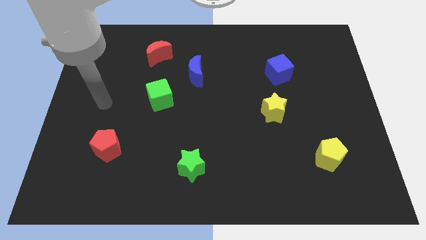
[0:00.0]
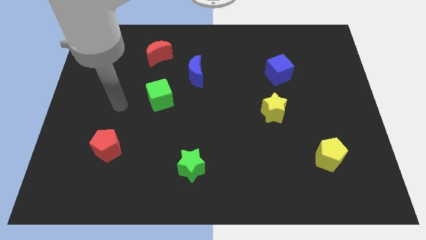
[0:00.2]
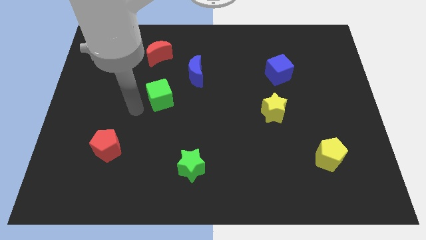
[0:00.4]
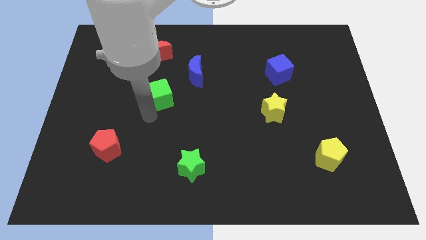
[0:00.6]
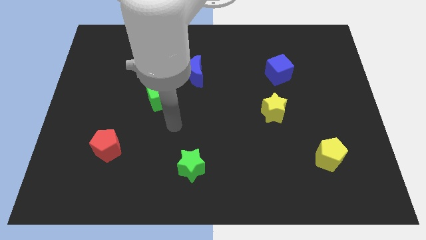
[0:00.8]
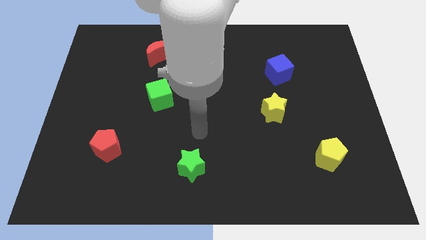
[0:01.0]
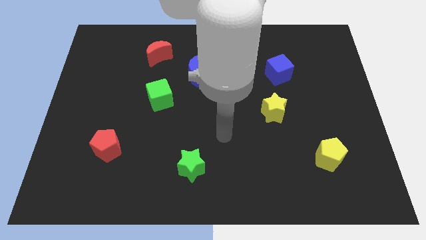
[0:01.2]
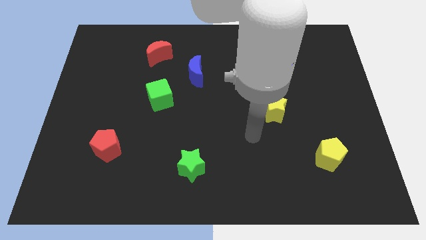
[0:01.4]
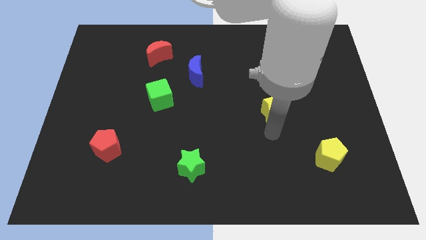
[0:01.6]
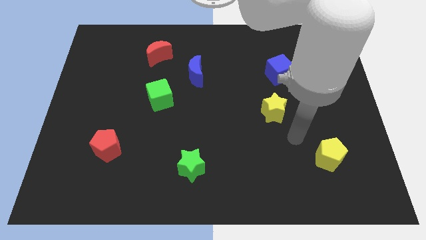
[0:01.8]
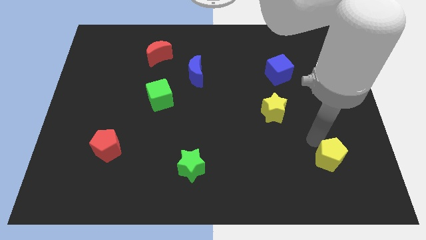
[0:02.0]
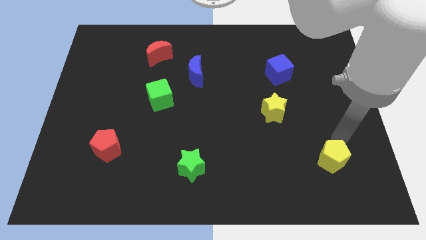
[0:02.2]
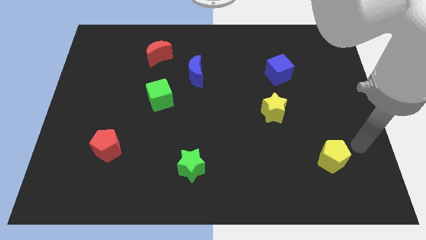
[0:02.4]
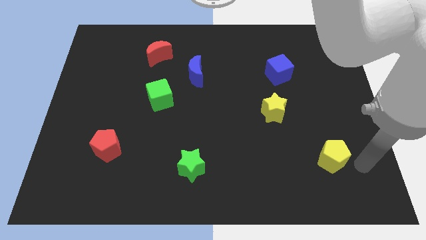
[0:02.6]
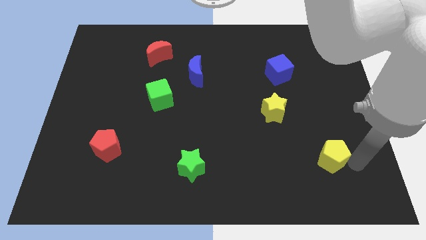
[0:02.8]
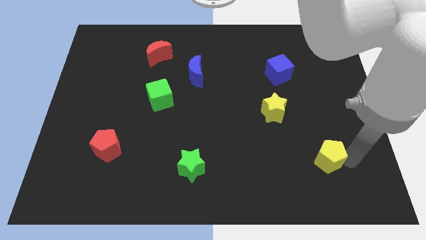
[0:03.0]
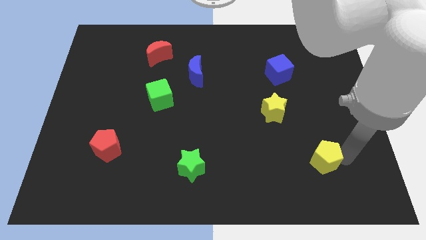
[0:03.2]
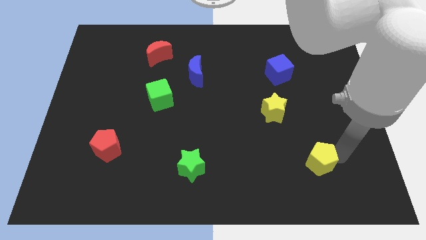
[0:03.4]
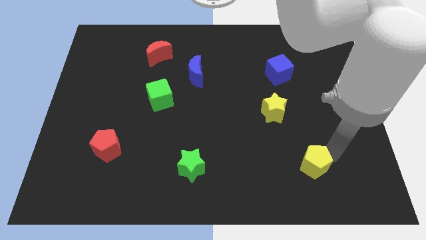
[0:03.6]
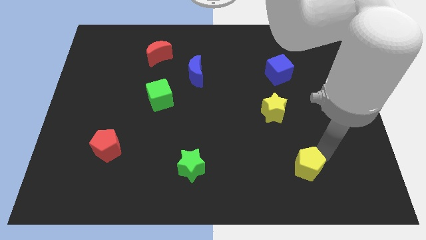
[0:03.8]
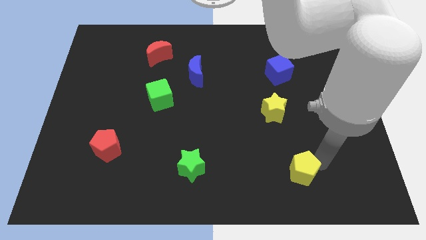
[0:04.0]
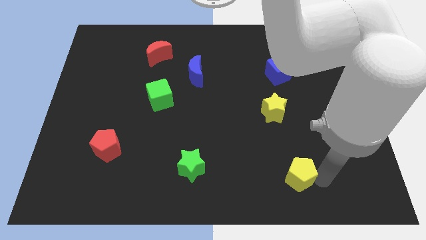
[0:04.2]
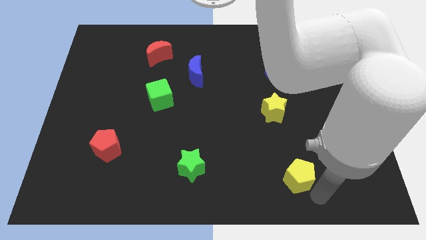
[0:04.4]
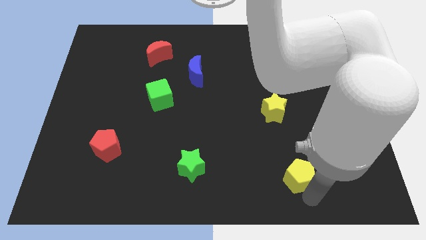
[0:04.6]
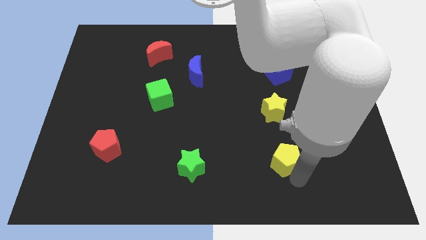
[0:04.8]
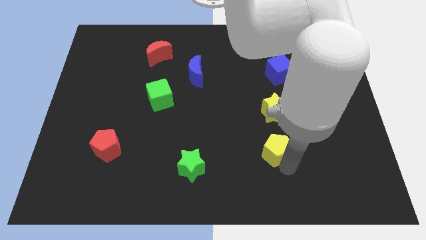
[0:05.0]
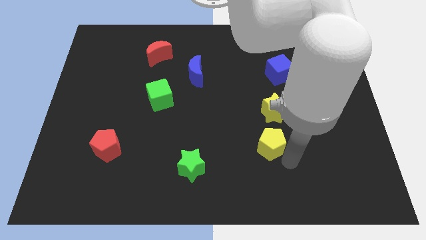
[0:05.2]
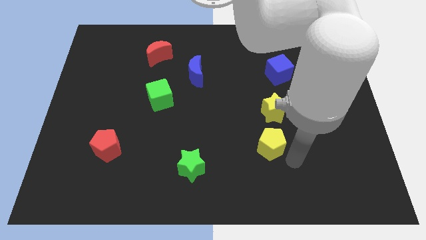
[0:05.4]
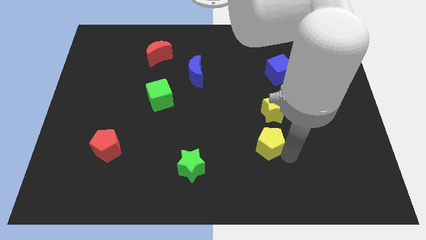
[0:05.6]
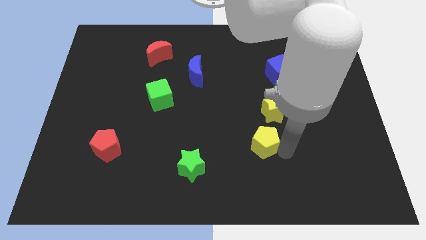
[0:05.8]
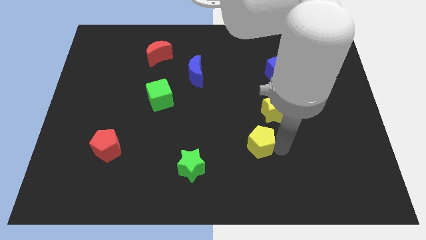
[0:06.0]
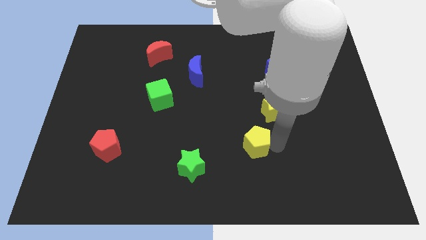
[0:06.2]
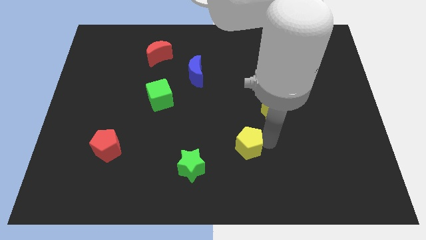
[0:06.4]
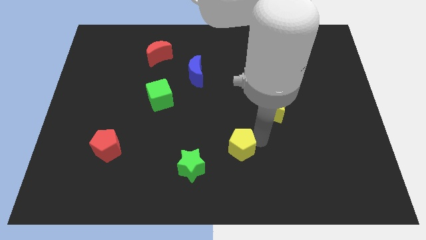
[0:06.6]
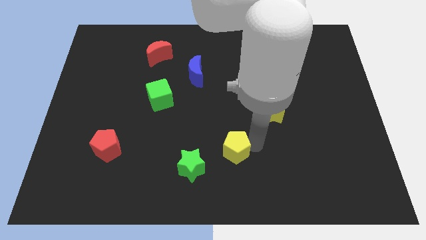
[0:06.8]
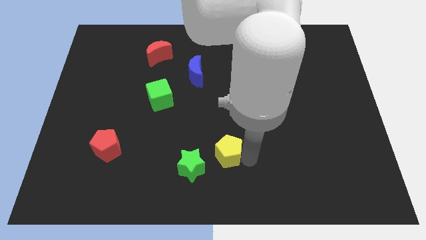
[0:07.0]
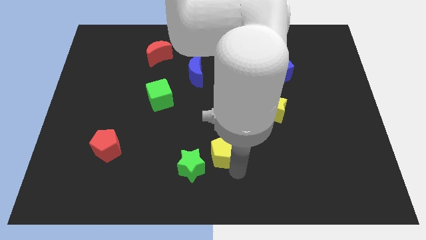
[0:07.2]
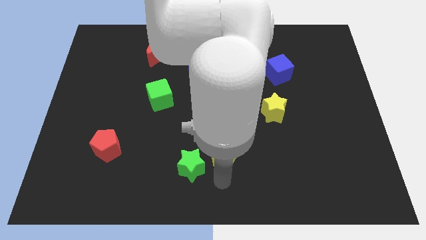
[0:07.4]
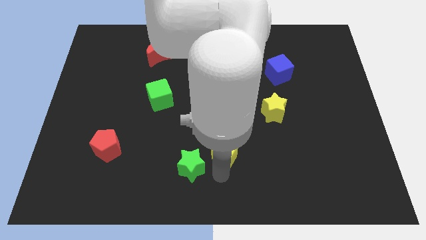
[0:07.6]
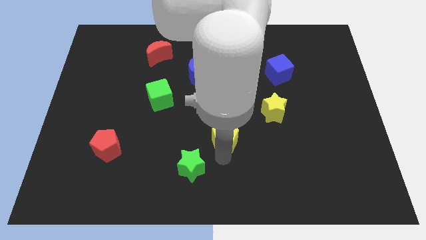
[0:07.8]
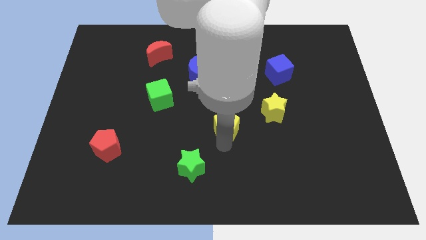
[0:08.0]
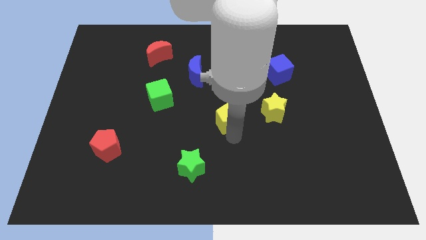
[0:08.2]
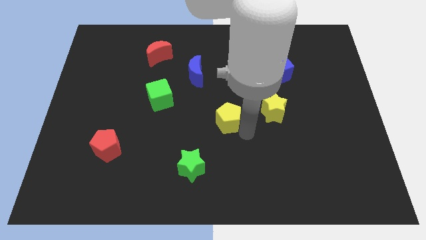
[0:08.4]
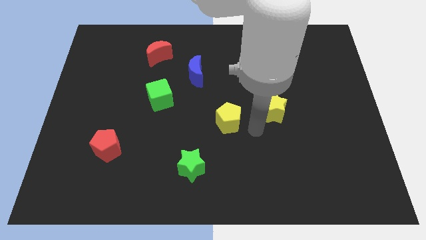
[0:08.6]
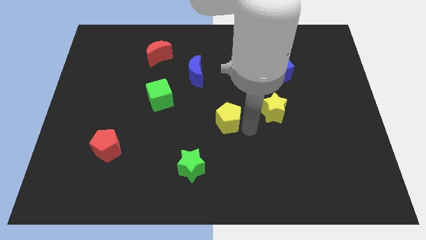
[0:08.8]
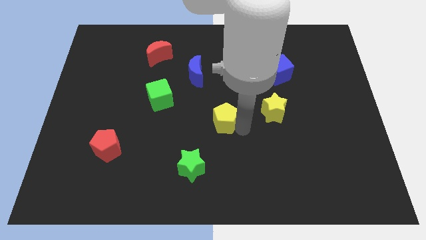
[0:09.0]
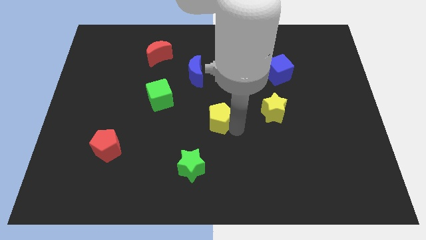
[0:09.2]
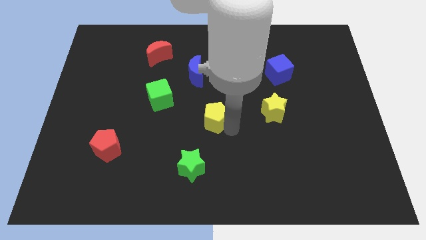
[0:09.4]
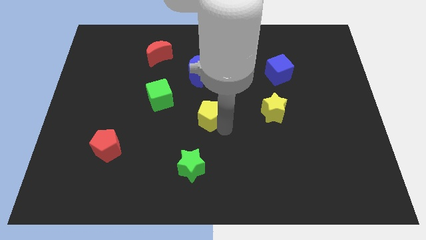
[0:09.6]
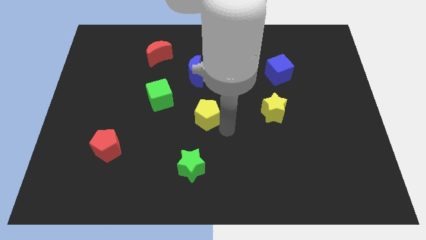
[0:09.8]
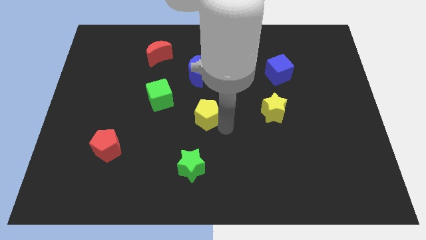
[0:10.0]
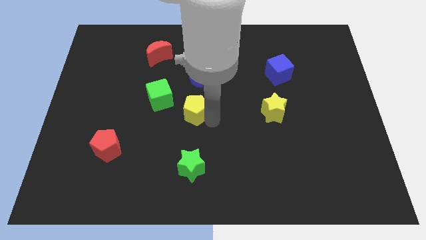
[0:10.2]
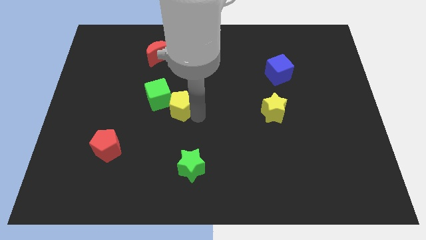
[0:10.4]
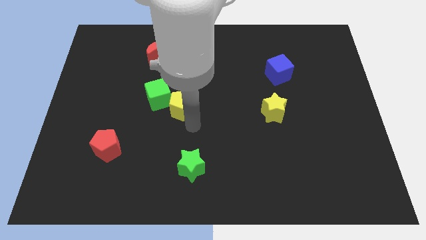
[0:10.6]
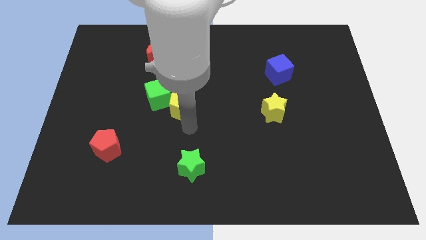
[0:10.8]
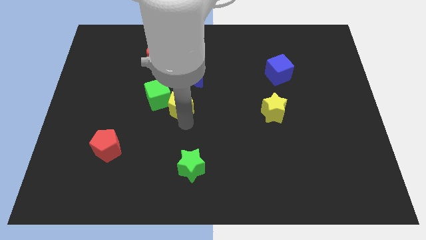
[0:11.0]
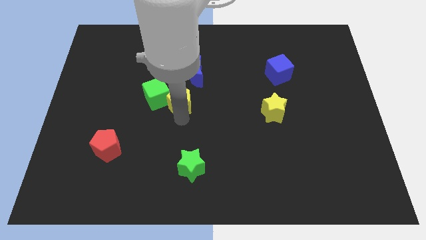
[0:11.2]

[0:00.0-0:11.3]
slide the yellow pentagon to the bottom left of the blue moon

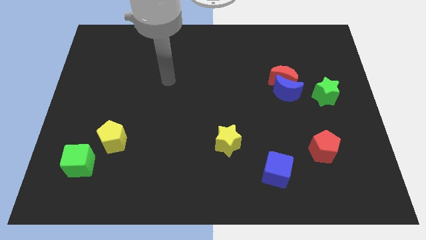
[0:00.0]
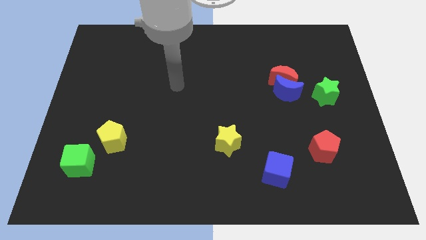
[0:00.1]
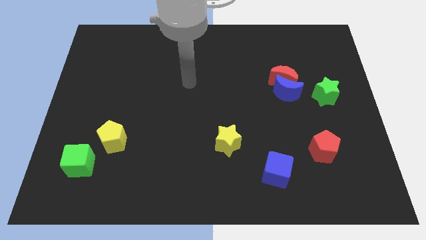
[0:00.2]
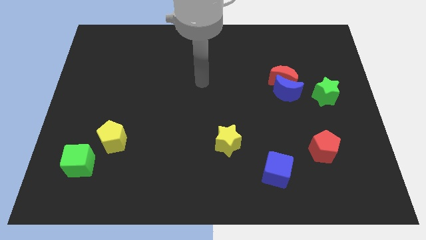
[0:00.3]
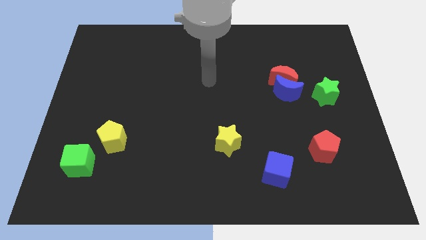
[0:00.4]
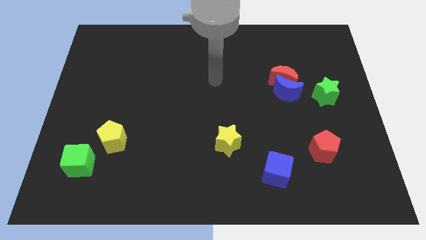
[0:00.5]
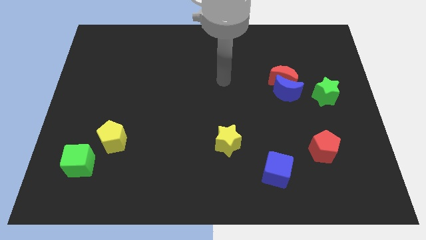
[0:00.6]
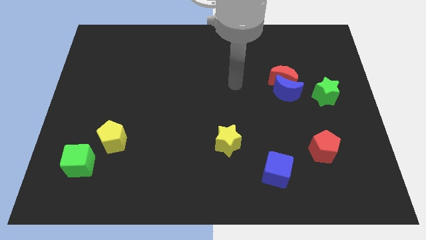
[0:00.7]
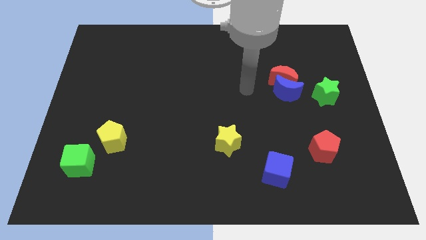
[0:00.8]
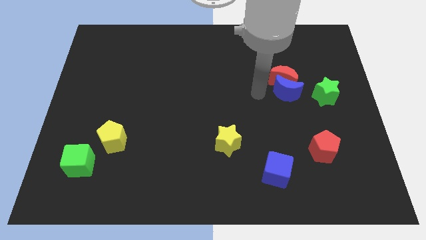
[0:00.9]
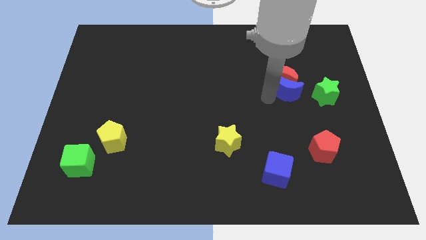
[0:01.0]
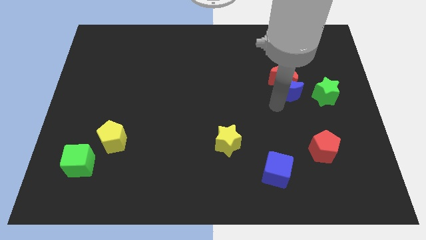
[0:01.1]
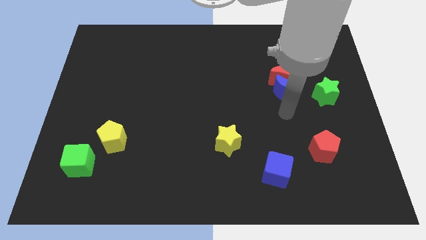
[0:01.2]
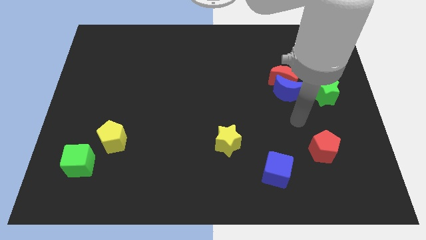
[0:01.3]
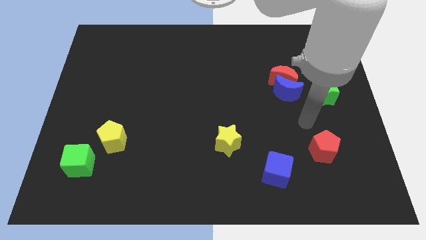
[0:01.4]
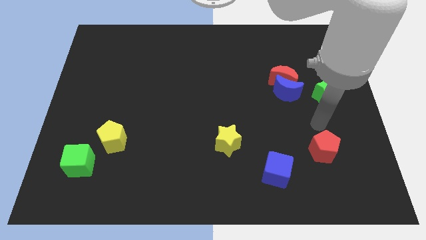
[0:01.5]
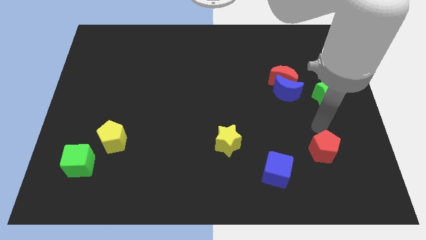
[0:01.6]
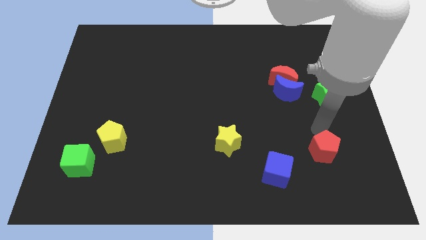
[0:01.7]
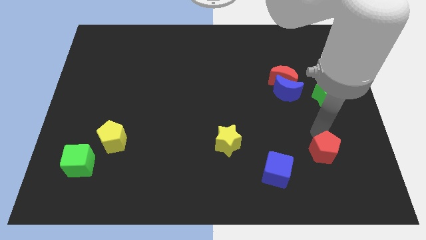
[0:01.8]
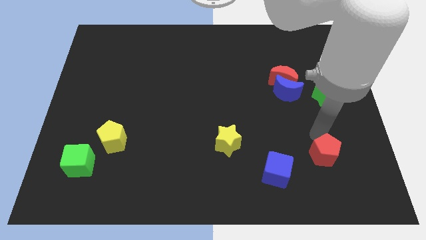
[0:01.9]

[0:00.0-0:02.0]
move the red pentagon right of the blue cube
